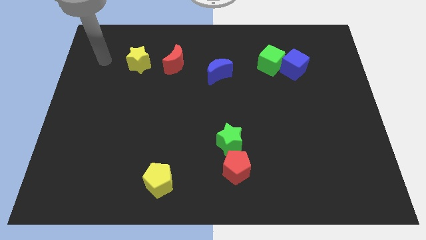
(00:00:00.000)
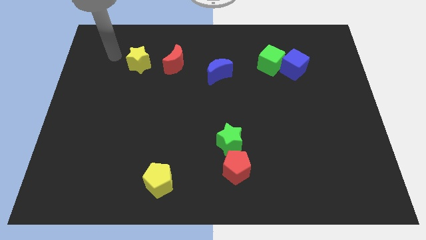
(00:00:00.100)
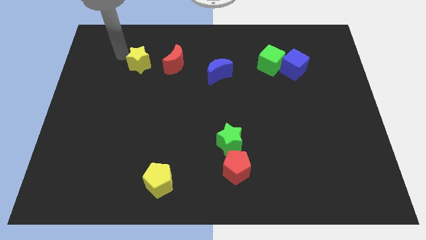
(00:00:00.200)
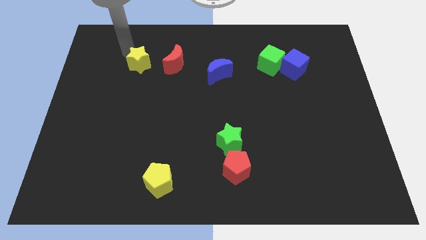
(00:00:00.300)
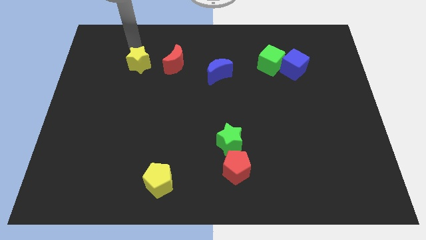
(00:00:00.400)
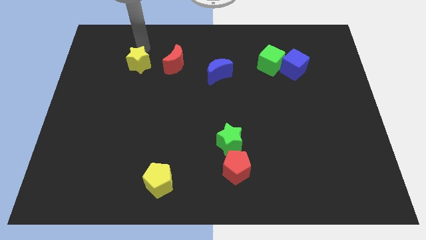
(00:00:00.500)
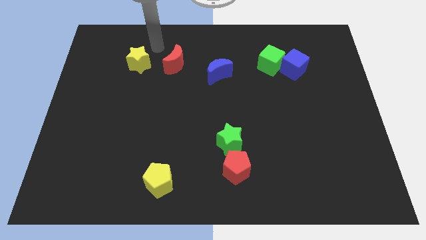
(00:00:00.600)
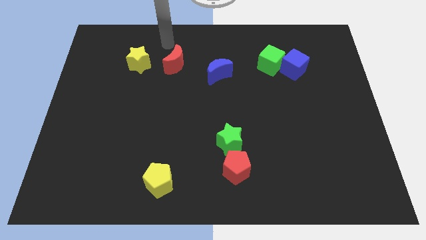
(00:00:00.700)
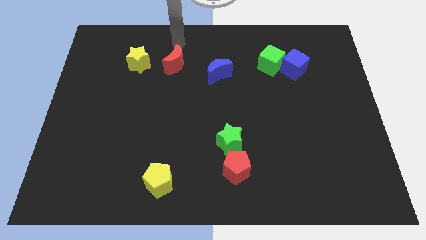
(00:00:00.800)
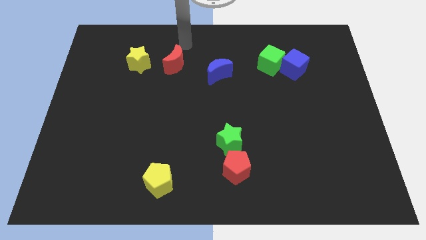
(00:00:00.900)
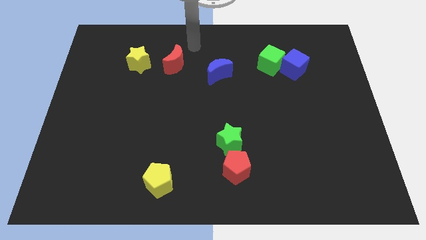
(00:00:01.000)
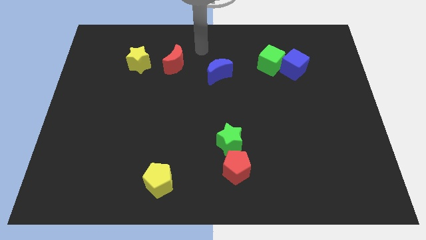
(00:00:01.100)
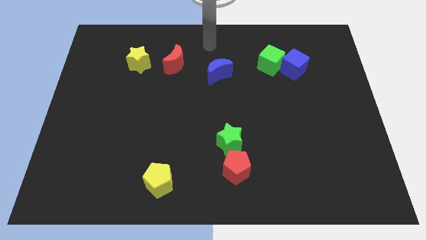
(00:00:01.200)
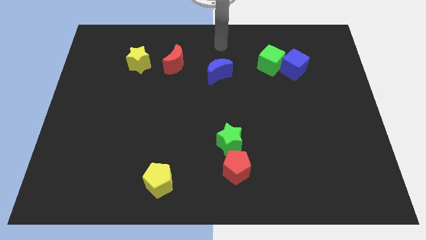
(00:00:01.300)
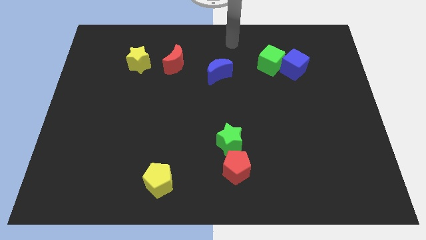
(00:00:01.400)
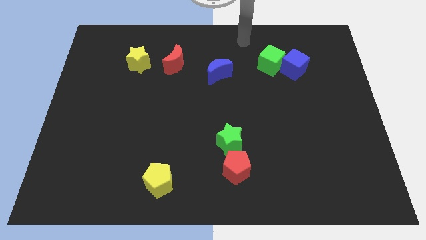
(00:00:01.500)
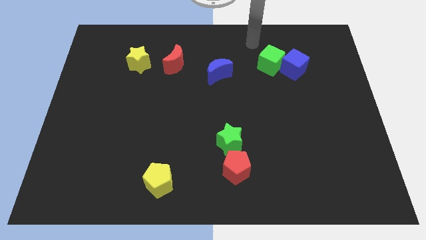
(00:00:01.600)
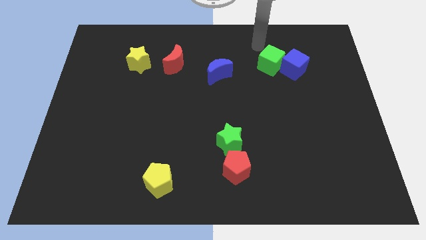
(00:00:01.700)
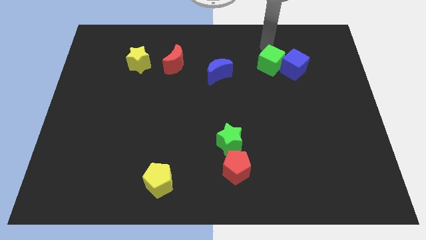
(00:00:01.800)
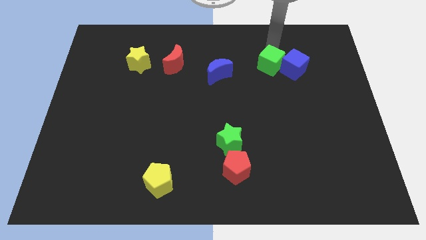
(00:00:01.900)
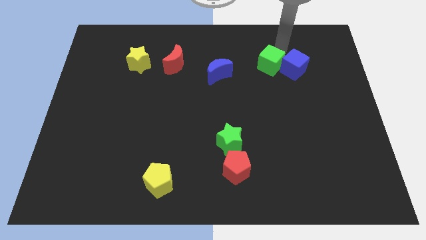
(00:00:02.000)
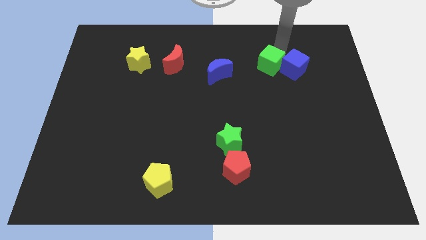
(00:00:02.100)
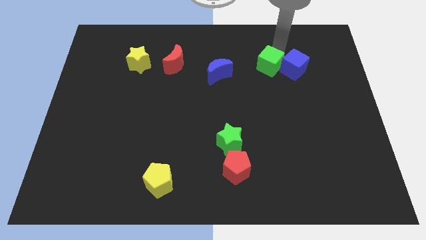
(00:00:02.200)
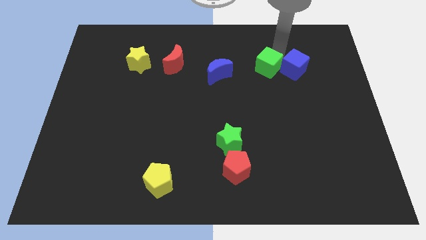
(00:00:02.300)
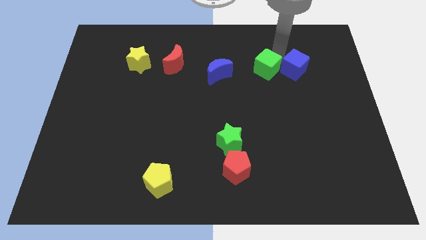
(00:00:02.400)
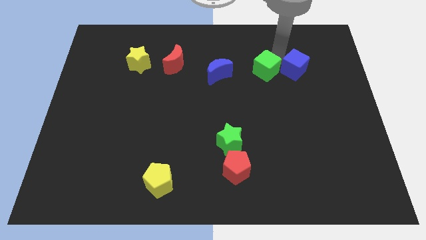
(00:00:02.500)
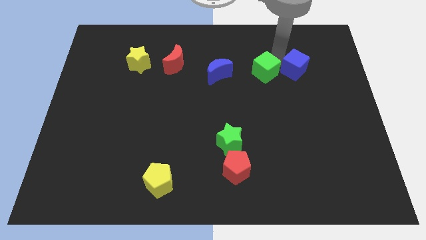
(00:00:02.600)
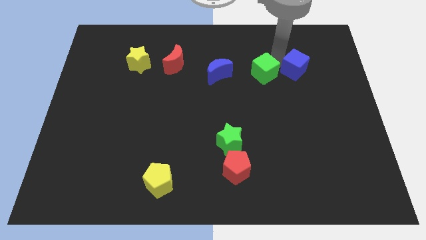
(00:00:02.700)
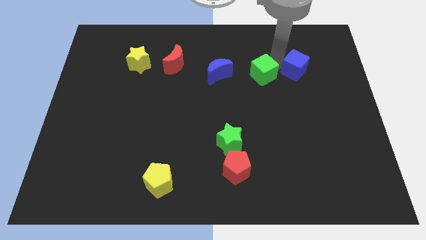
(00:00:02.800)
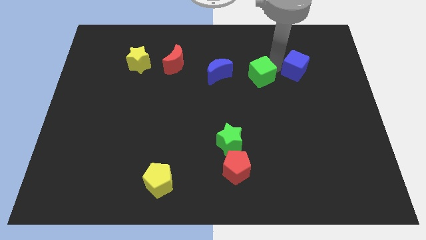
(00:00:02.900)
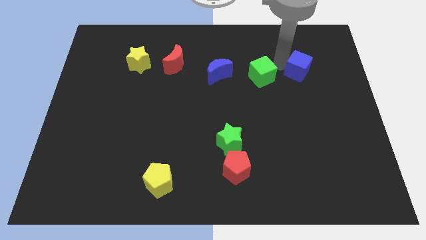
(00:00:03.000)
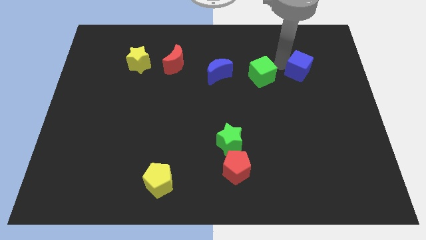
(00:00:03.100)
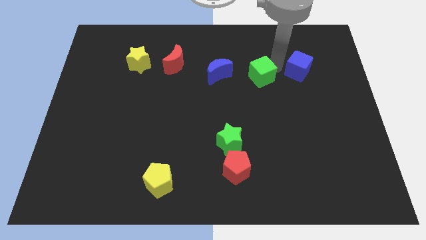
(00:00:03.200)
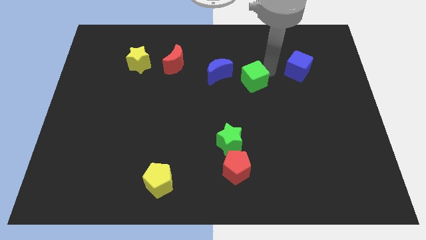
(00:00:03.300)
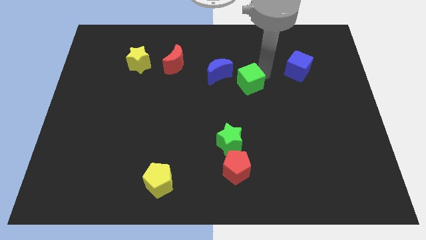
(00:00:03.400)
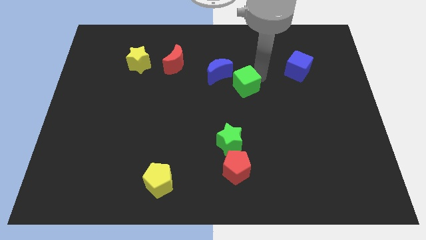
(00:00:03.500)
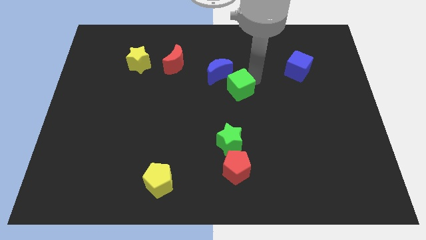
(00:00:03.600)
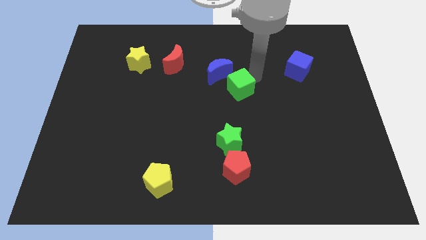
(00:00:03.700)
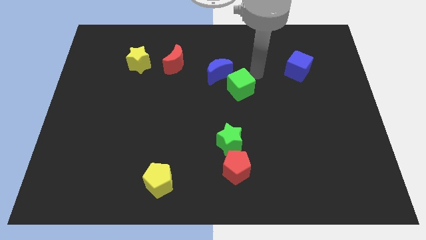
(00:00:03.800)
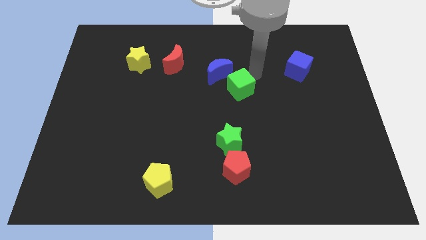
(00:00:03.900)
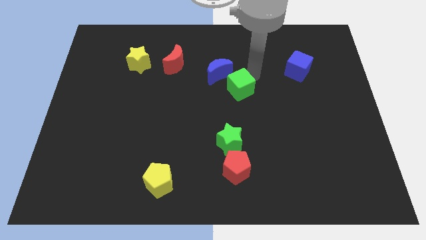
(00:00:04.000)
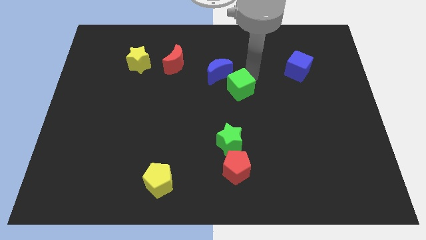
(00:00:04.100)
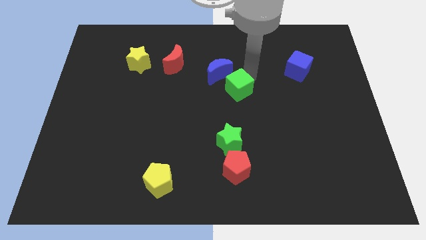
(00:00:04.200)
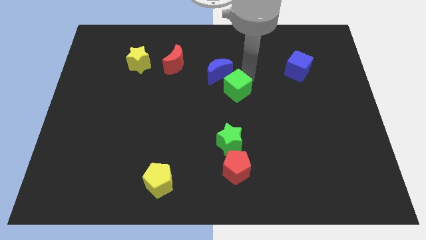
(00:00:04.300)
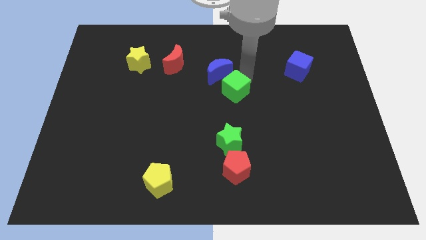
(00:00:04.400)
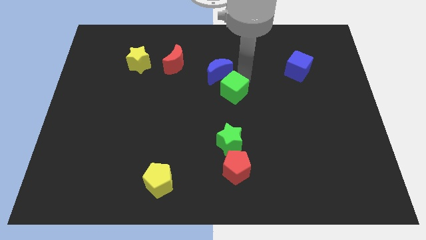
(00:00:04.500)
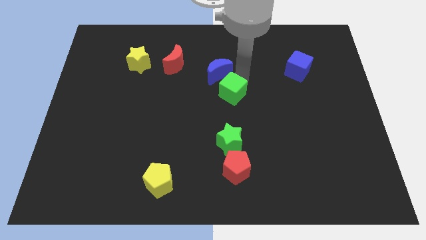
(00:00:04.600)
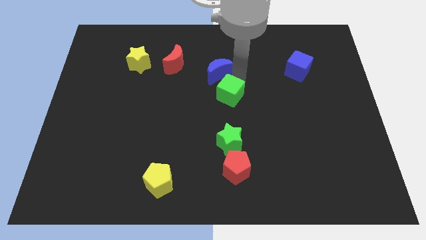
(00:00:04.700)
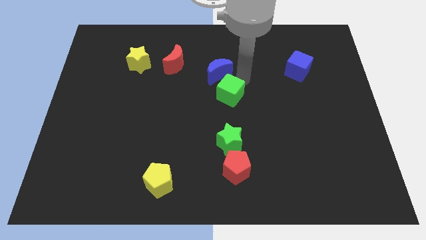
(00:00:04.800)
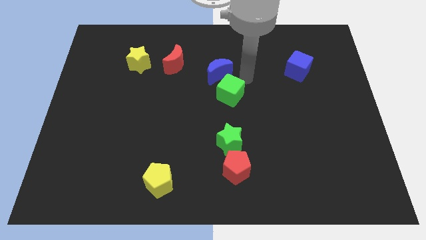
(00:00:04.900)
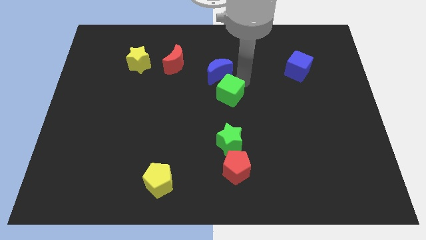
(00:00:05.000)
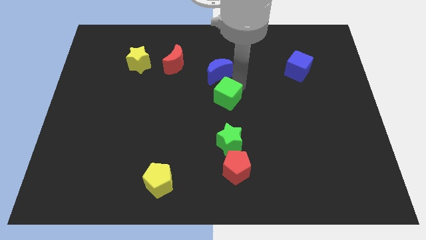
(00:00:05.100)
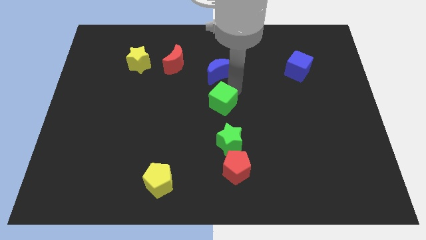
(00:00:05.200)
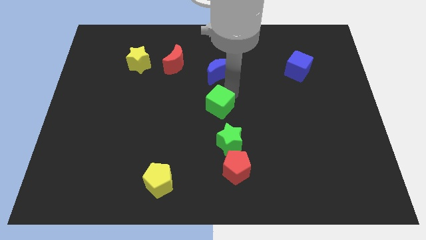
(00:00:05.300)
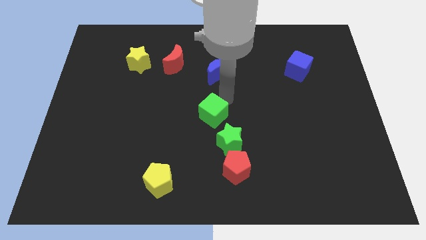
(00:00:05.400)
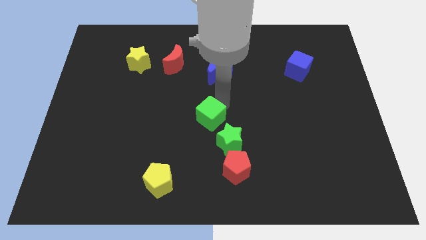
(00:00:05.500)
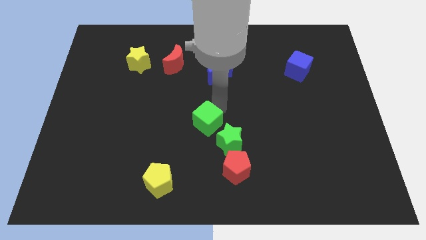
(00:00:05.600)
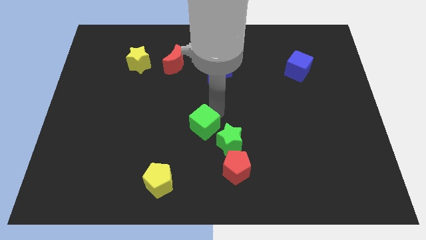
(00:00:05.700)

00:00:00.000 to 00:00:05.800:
push the green cube to the left side of the green star

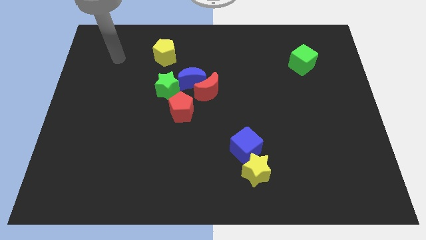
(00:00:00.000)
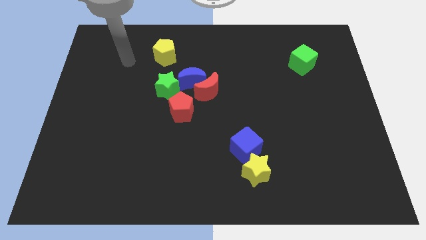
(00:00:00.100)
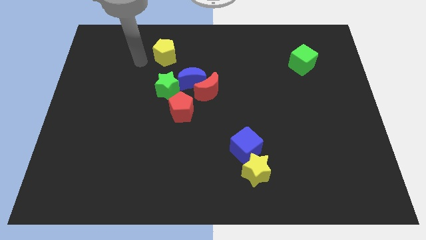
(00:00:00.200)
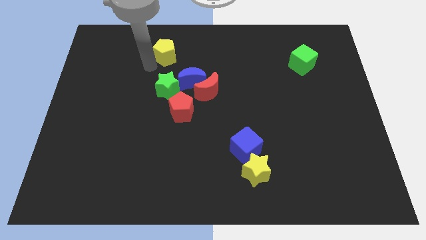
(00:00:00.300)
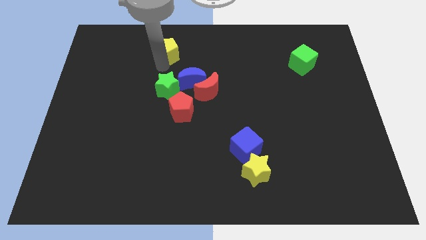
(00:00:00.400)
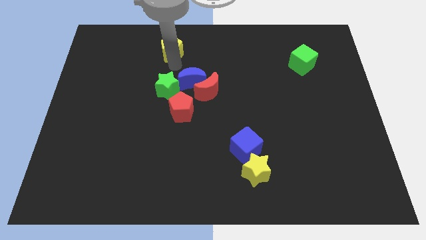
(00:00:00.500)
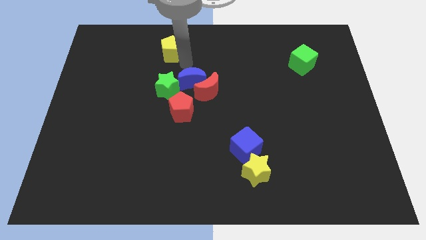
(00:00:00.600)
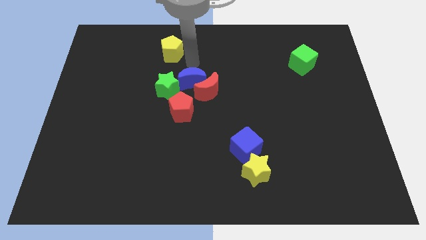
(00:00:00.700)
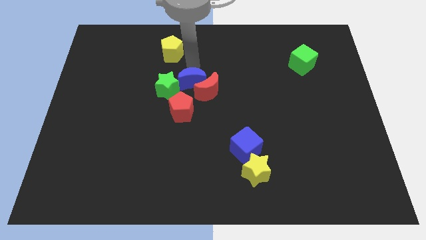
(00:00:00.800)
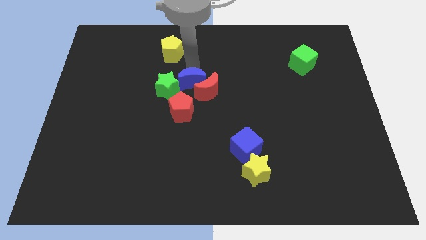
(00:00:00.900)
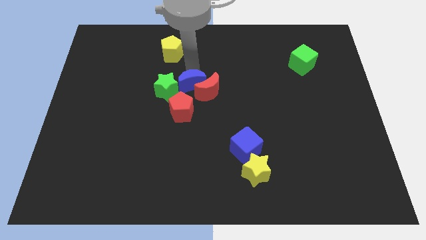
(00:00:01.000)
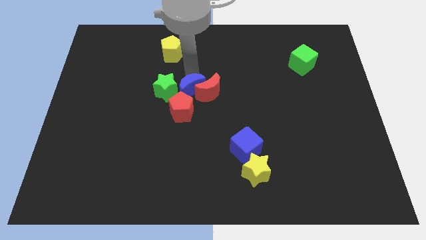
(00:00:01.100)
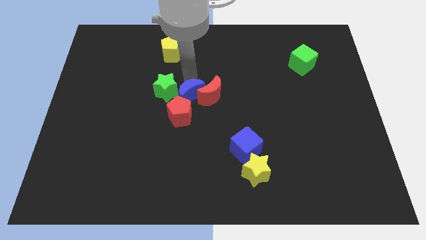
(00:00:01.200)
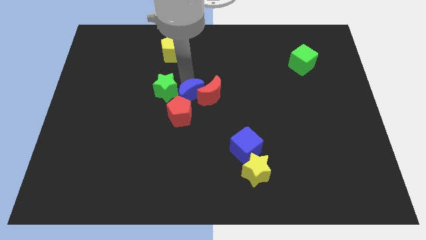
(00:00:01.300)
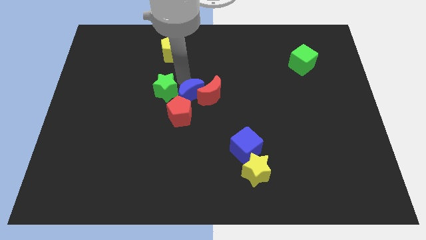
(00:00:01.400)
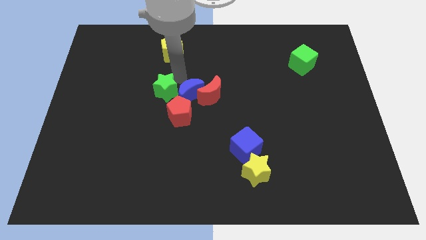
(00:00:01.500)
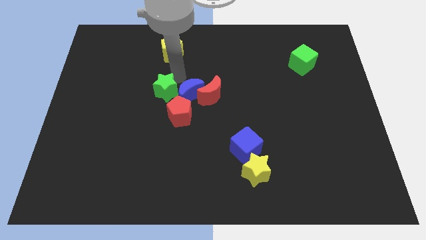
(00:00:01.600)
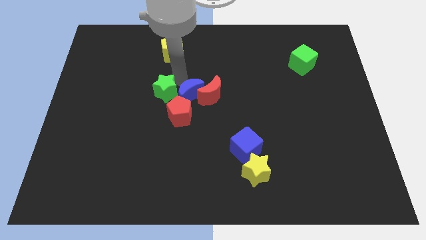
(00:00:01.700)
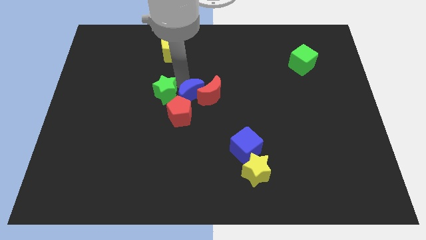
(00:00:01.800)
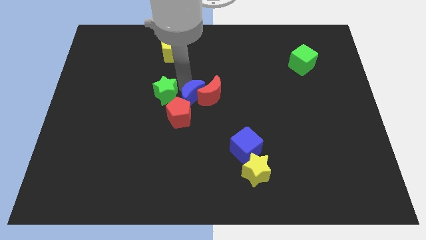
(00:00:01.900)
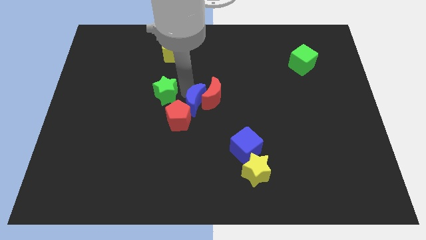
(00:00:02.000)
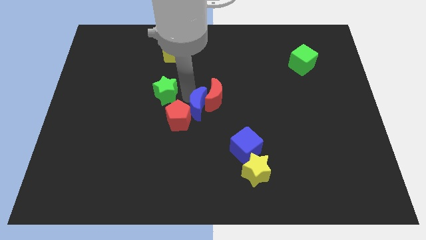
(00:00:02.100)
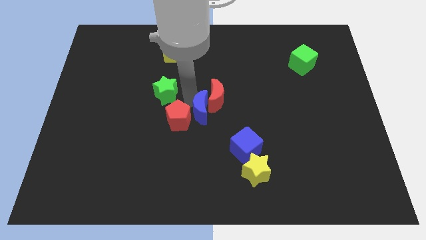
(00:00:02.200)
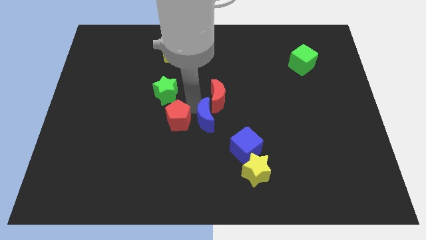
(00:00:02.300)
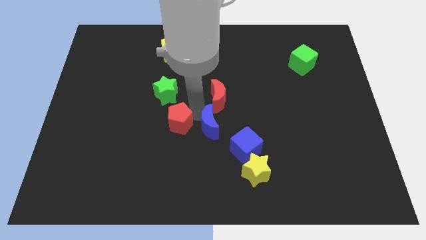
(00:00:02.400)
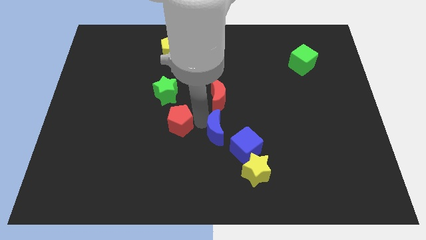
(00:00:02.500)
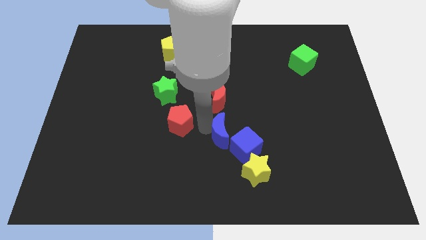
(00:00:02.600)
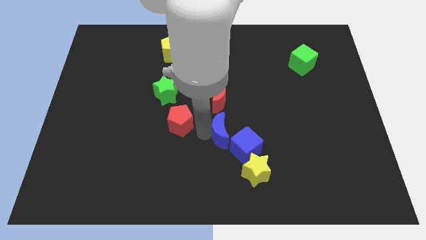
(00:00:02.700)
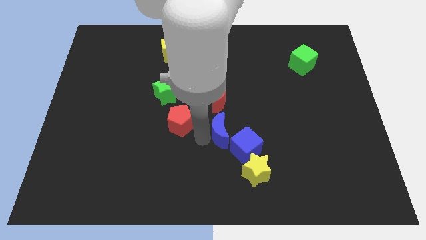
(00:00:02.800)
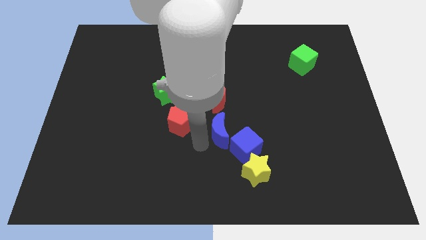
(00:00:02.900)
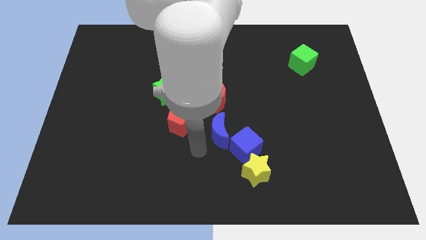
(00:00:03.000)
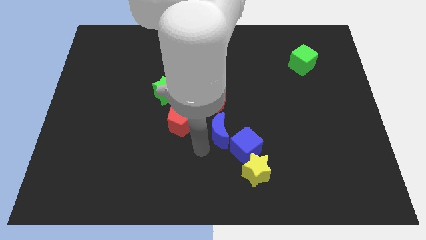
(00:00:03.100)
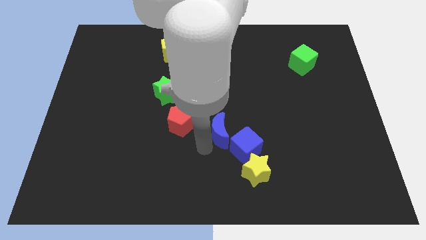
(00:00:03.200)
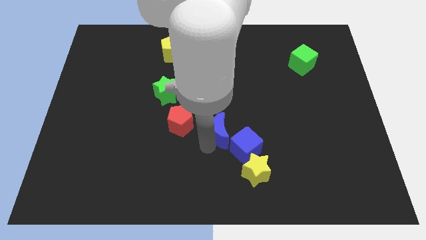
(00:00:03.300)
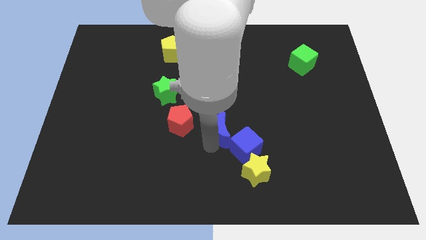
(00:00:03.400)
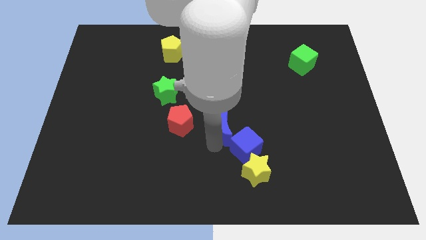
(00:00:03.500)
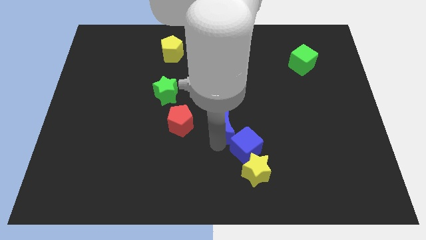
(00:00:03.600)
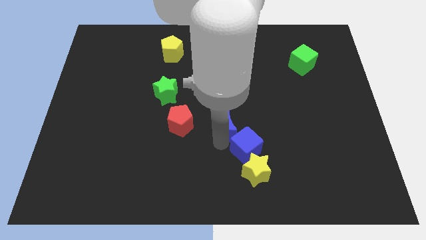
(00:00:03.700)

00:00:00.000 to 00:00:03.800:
slide the blue moon diagonally down and to the right of the red moon
